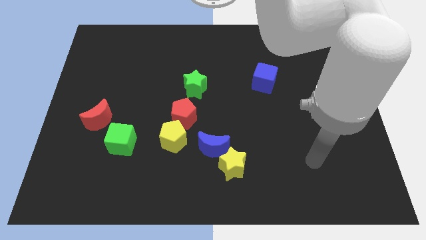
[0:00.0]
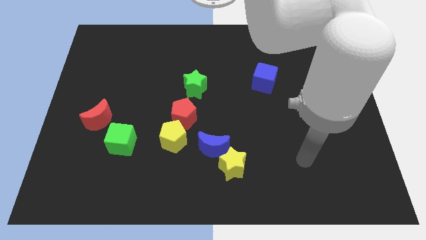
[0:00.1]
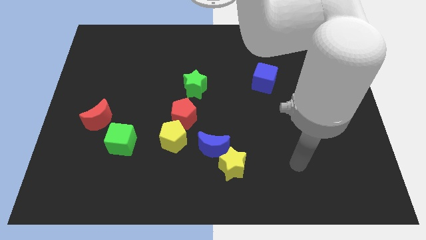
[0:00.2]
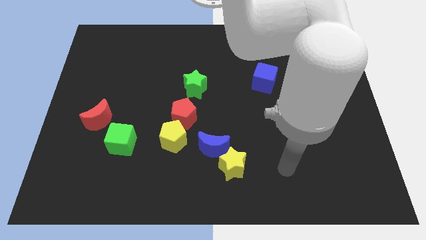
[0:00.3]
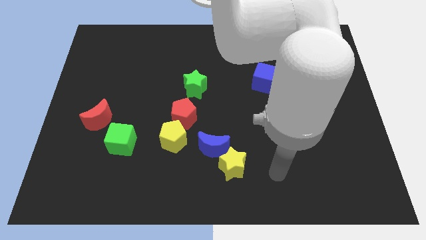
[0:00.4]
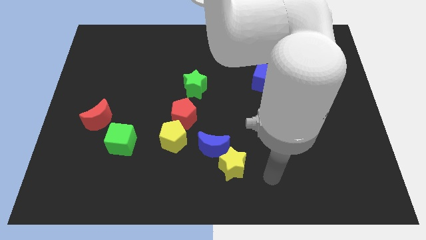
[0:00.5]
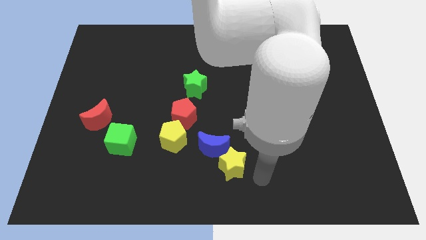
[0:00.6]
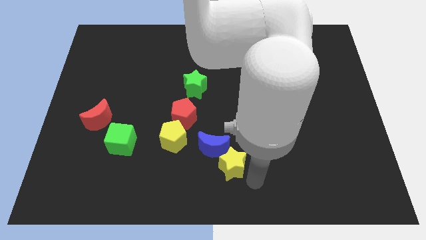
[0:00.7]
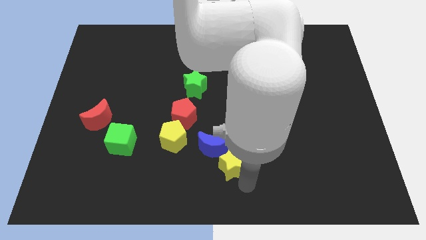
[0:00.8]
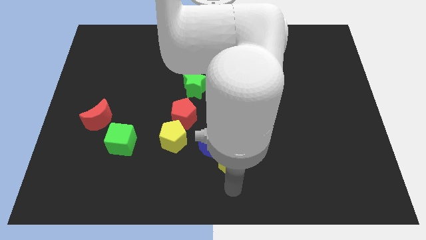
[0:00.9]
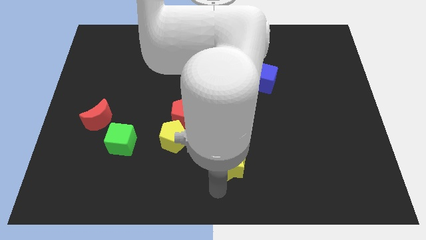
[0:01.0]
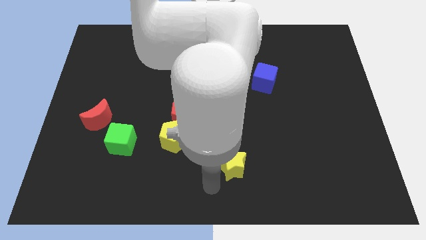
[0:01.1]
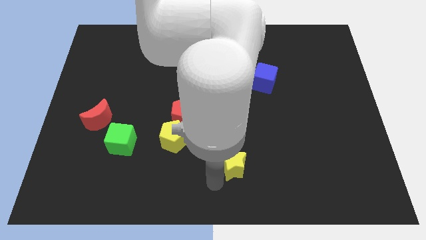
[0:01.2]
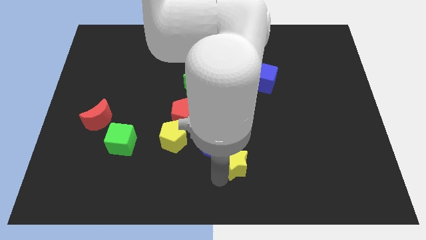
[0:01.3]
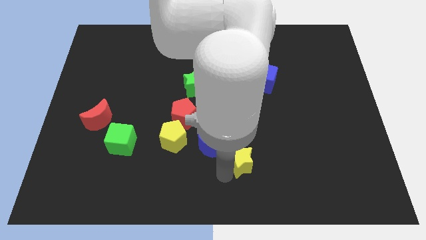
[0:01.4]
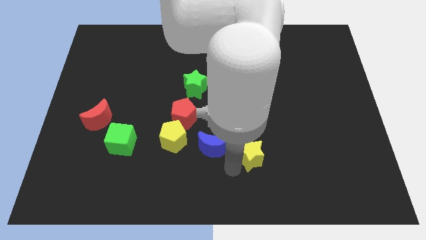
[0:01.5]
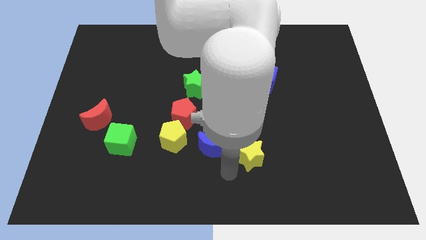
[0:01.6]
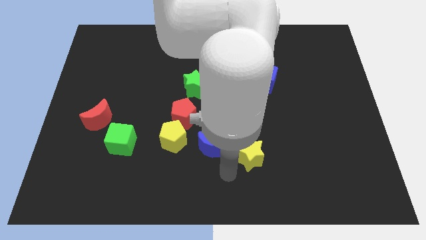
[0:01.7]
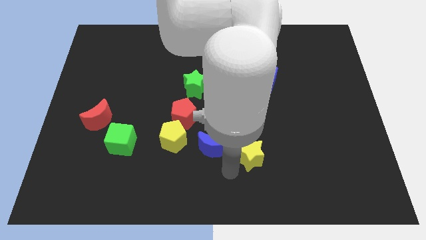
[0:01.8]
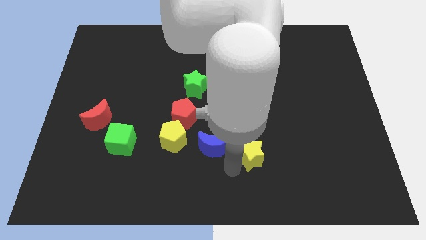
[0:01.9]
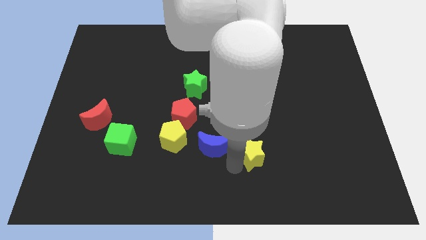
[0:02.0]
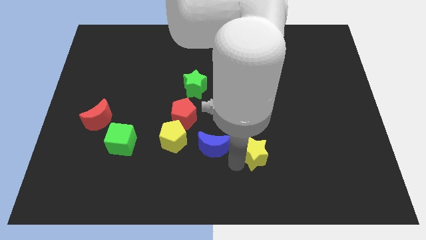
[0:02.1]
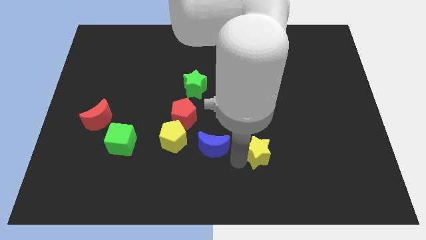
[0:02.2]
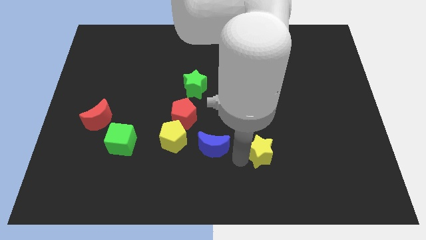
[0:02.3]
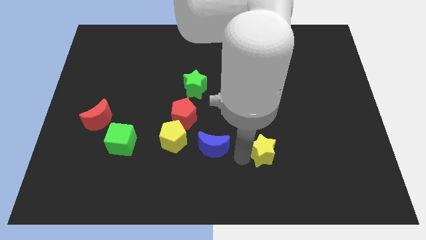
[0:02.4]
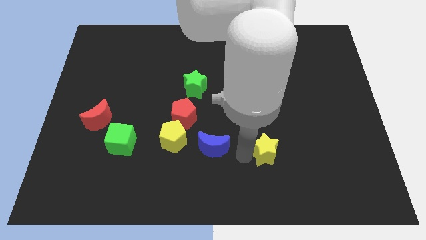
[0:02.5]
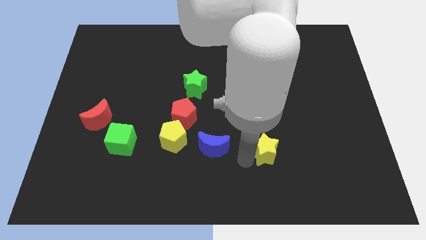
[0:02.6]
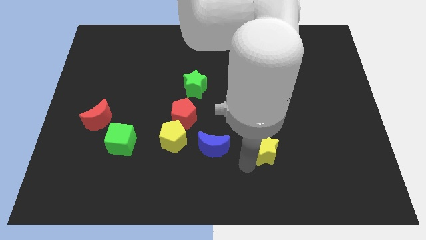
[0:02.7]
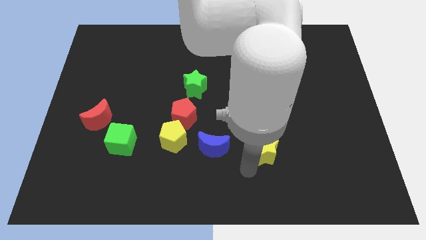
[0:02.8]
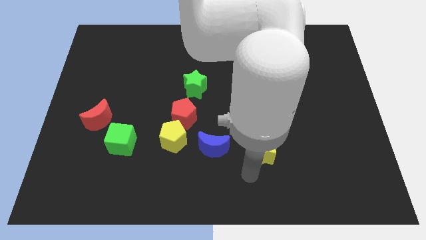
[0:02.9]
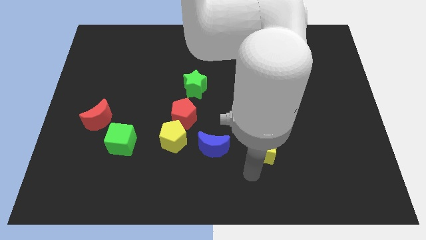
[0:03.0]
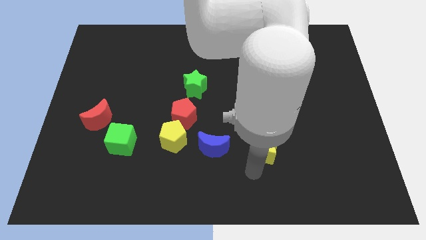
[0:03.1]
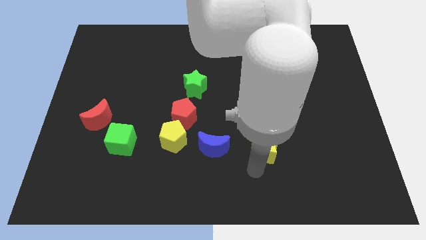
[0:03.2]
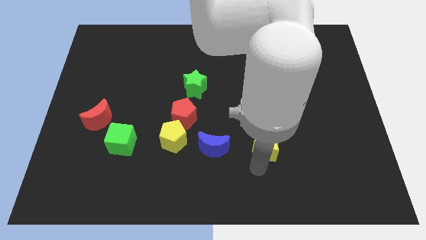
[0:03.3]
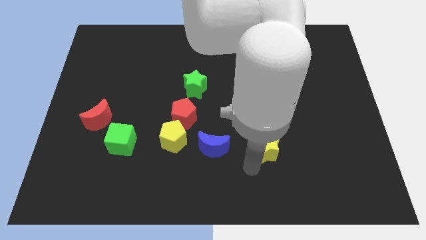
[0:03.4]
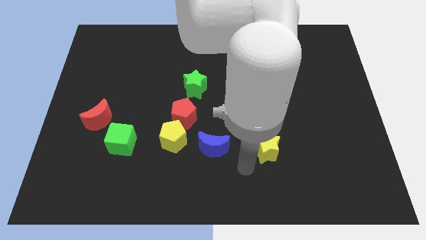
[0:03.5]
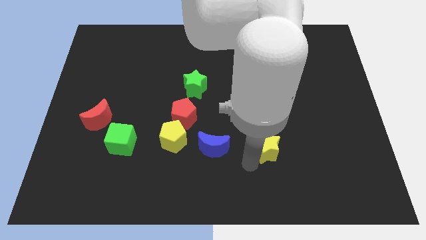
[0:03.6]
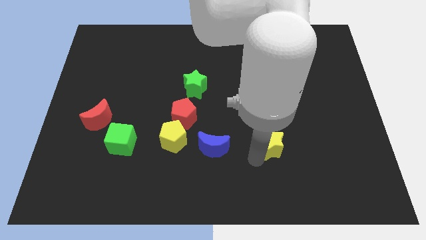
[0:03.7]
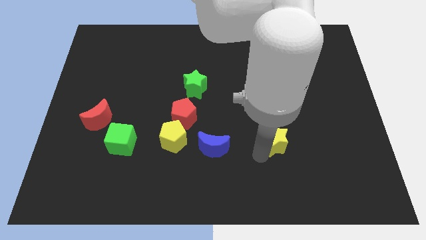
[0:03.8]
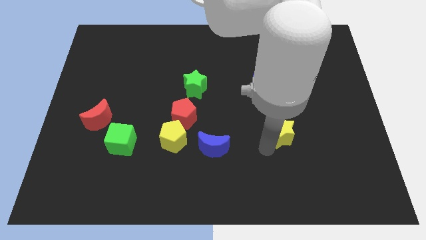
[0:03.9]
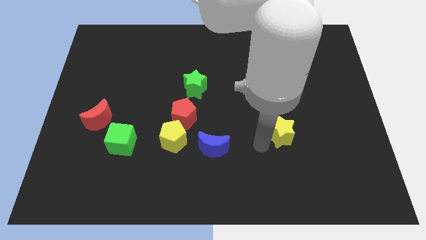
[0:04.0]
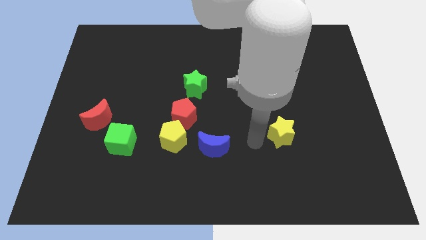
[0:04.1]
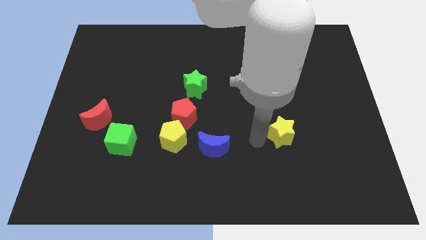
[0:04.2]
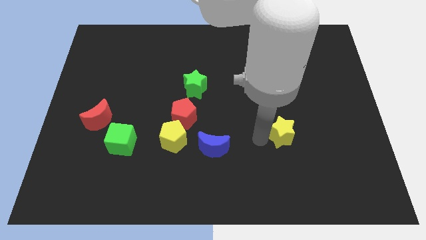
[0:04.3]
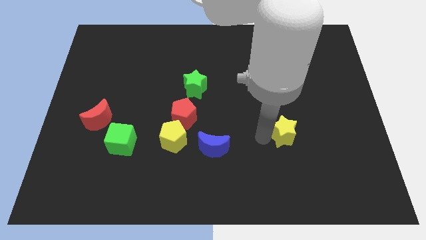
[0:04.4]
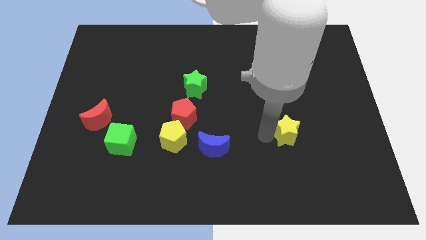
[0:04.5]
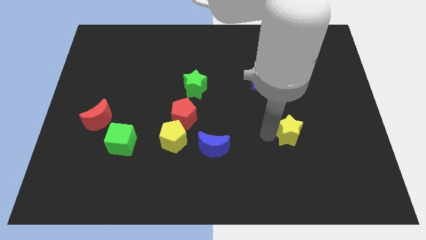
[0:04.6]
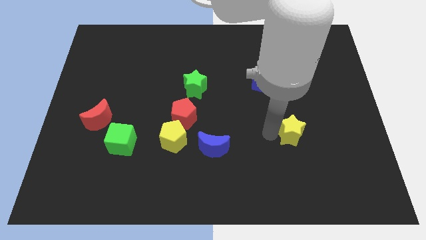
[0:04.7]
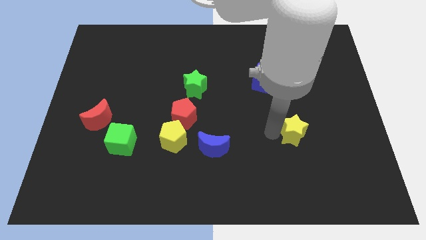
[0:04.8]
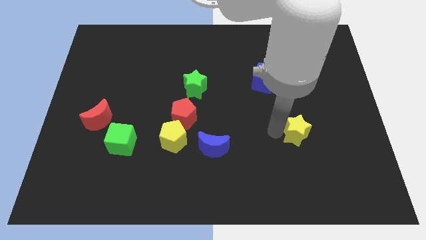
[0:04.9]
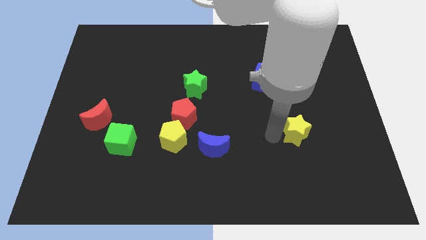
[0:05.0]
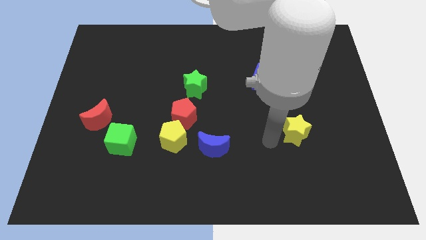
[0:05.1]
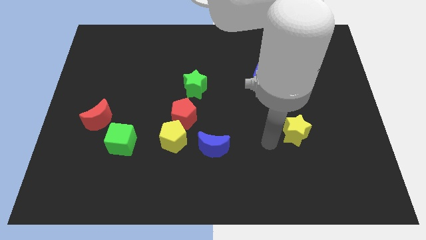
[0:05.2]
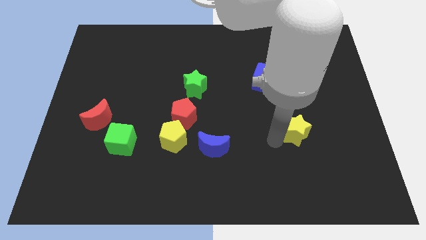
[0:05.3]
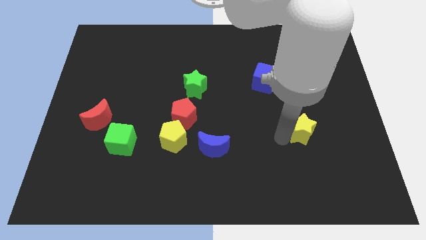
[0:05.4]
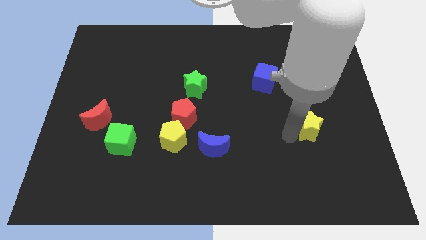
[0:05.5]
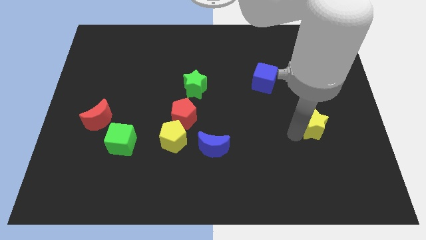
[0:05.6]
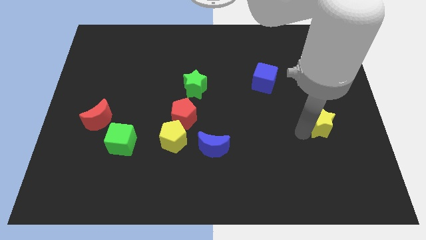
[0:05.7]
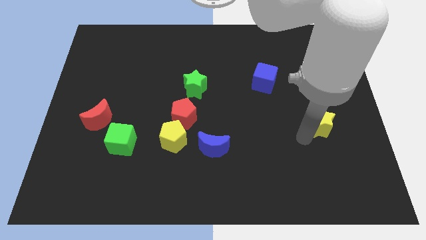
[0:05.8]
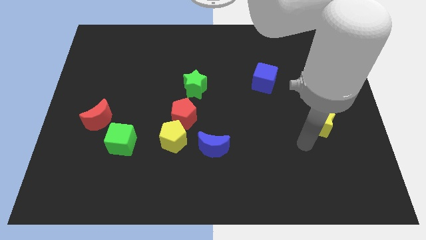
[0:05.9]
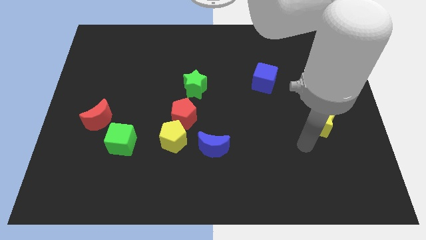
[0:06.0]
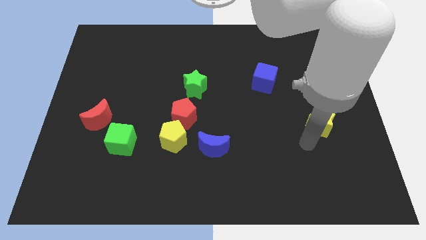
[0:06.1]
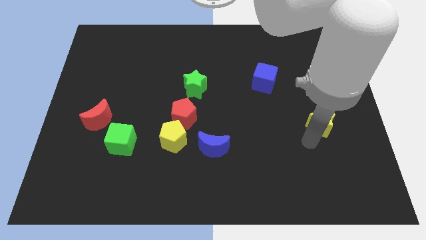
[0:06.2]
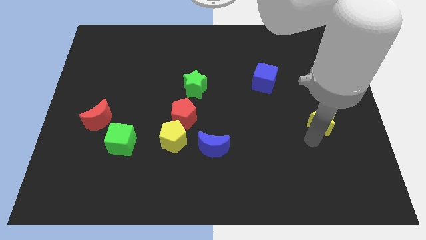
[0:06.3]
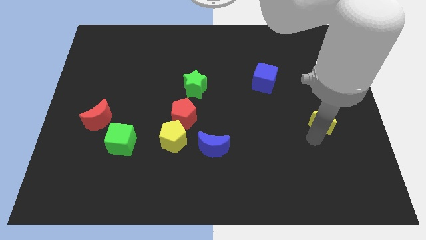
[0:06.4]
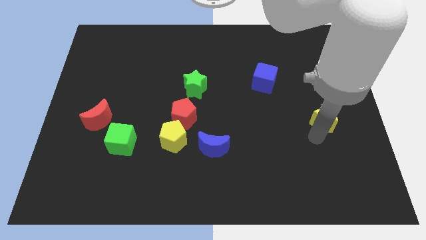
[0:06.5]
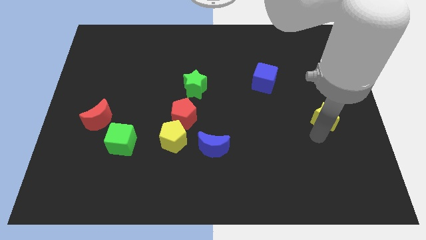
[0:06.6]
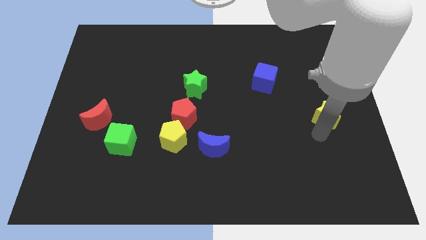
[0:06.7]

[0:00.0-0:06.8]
push the yellow star to the center right
